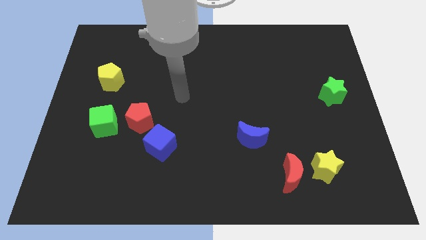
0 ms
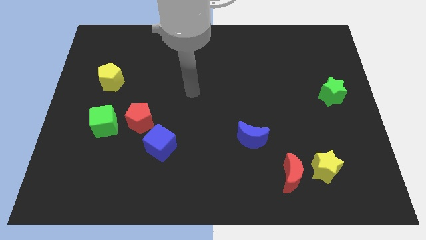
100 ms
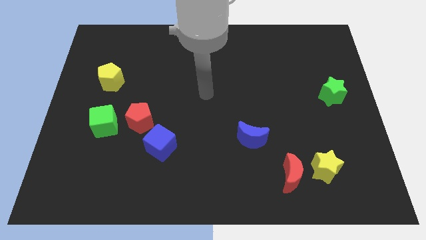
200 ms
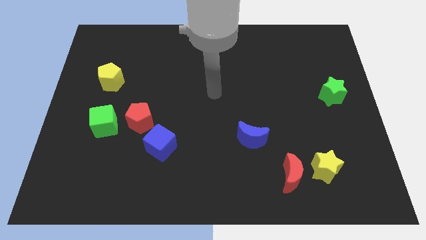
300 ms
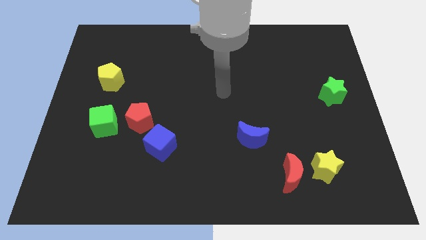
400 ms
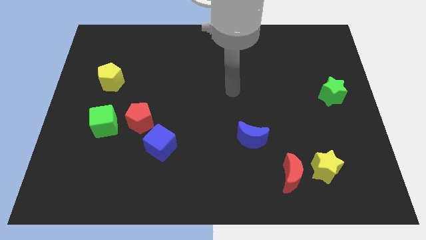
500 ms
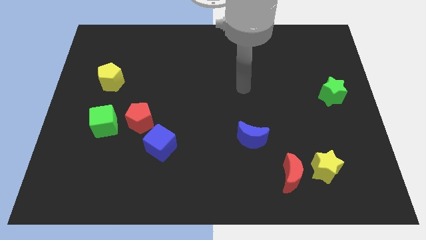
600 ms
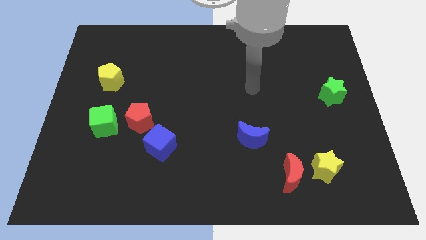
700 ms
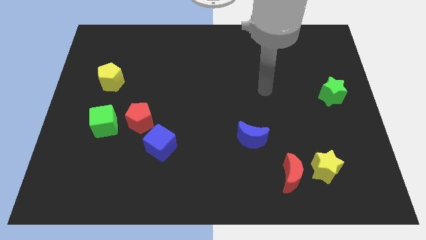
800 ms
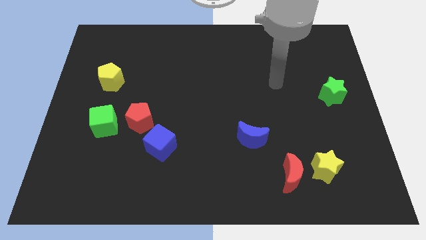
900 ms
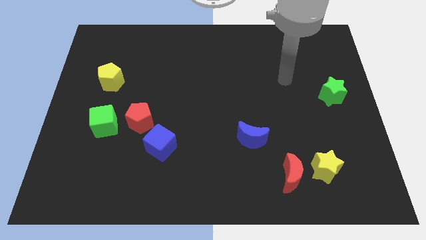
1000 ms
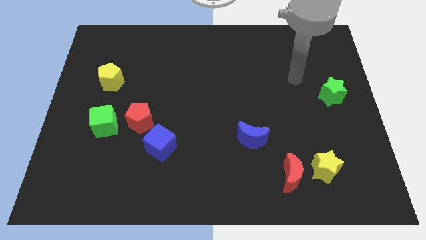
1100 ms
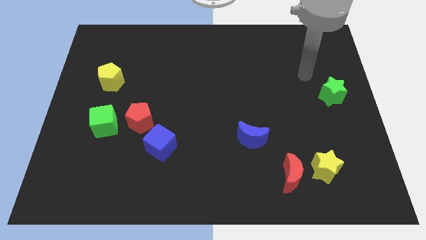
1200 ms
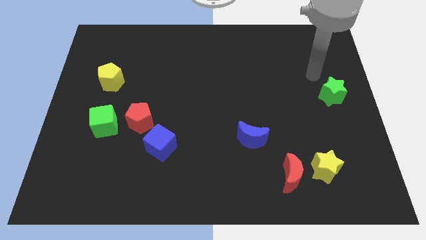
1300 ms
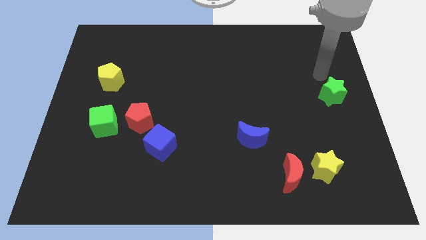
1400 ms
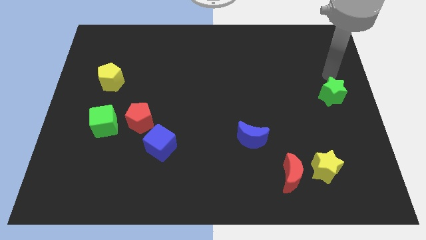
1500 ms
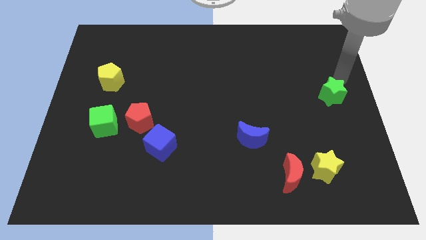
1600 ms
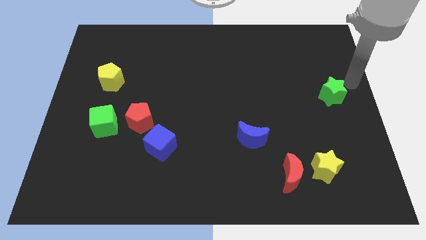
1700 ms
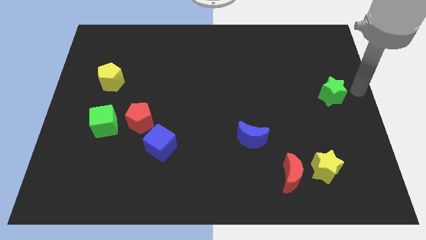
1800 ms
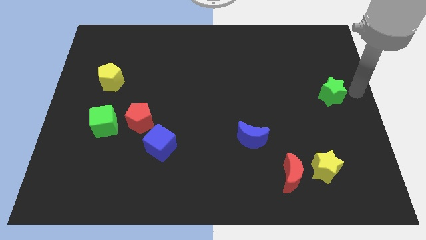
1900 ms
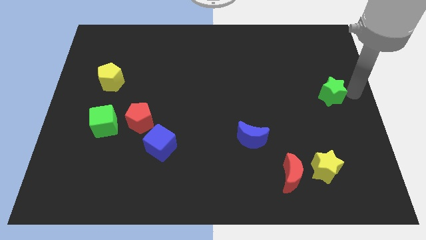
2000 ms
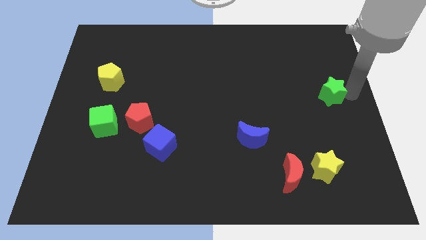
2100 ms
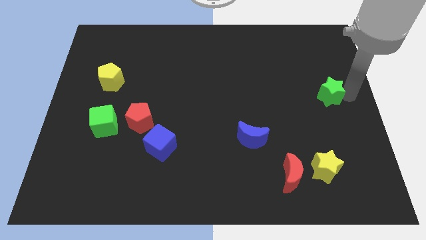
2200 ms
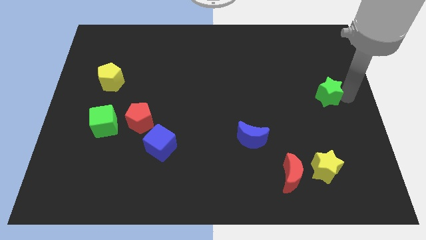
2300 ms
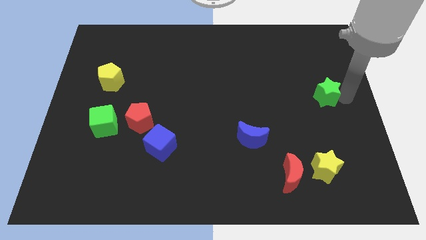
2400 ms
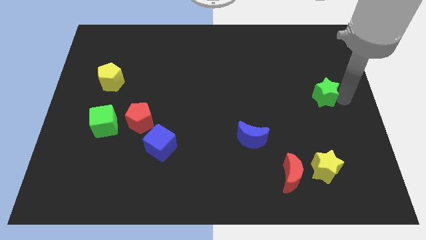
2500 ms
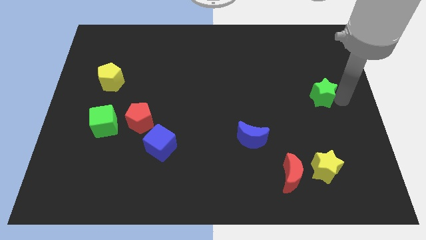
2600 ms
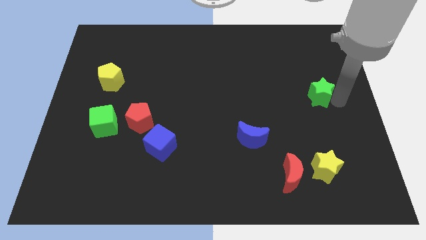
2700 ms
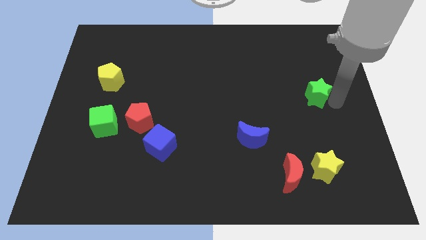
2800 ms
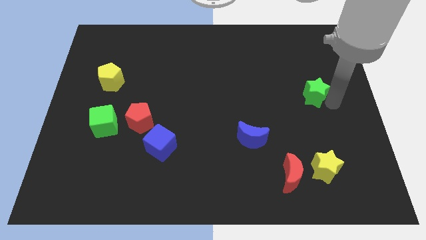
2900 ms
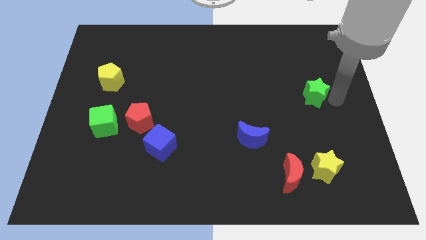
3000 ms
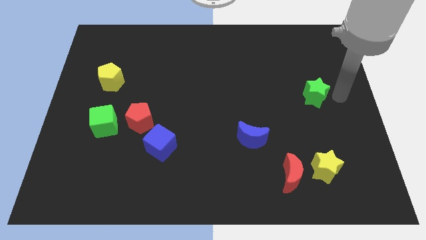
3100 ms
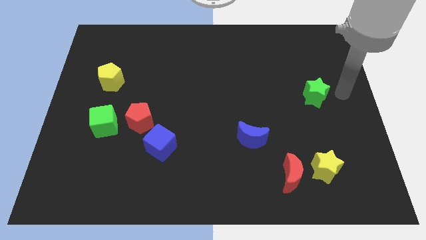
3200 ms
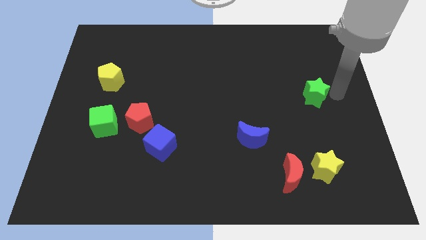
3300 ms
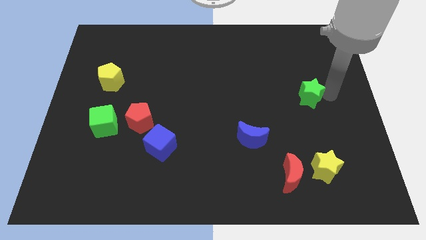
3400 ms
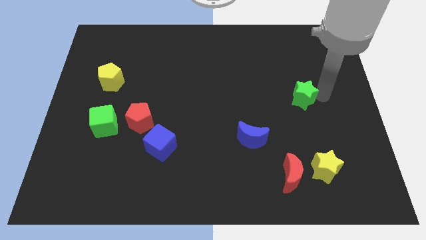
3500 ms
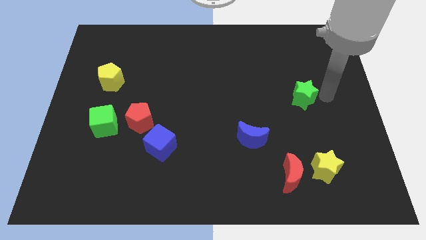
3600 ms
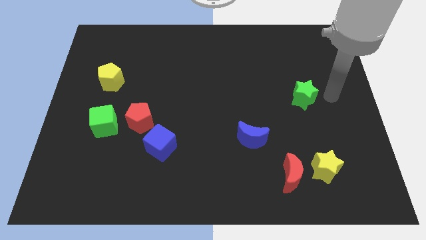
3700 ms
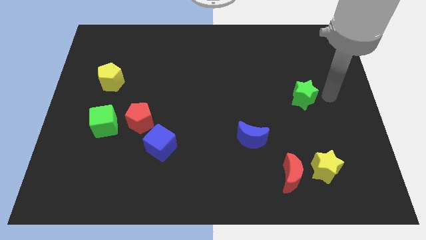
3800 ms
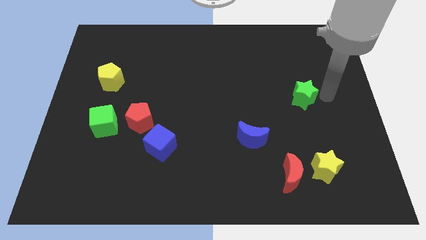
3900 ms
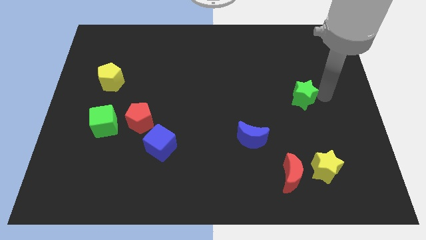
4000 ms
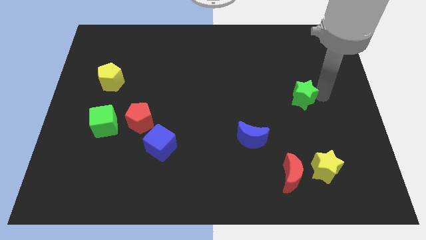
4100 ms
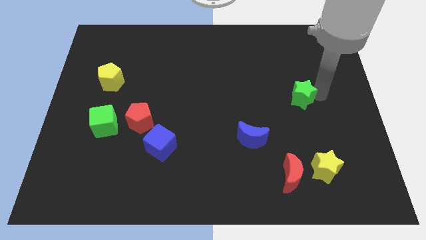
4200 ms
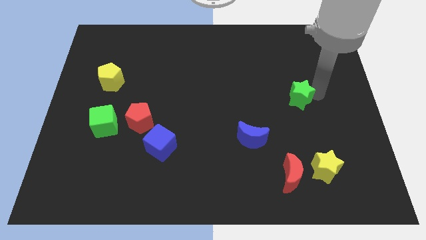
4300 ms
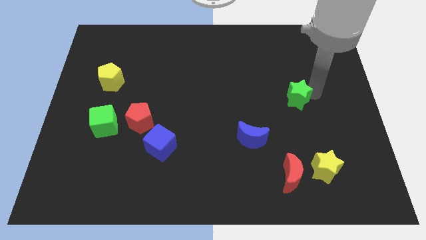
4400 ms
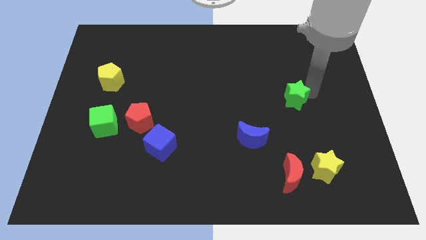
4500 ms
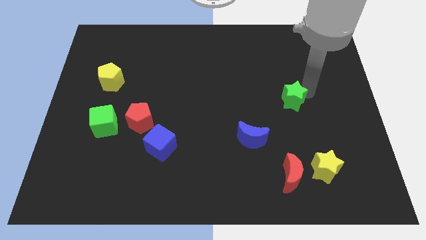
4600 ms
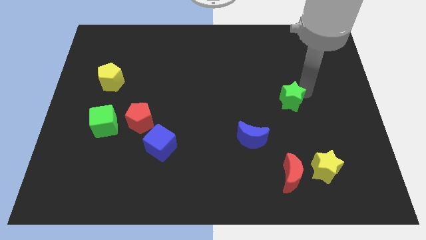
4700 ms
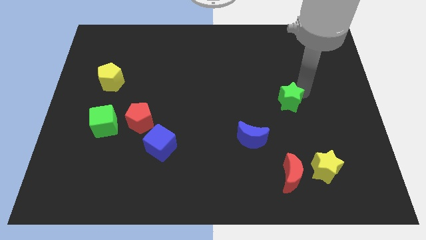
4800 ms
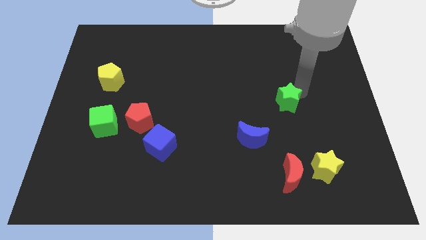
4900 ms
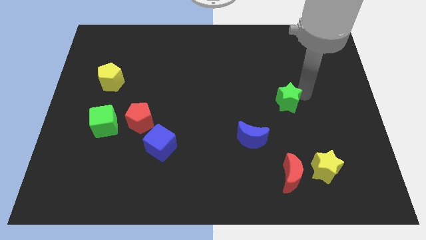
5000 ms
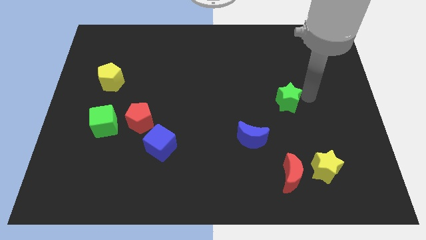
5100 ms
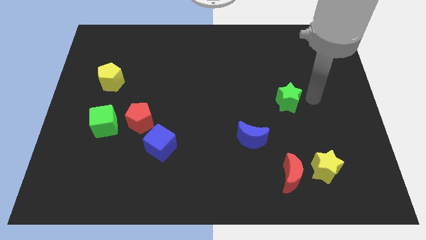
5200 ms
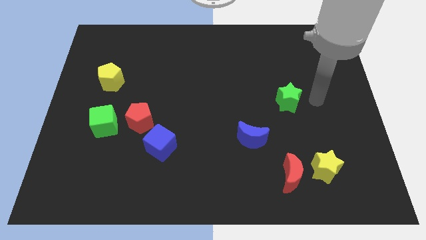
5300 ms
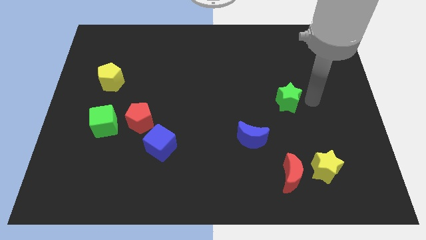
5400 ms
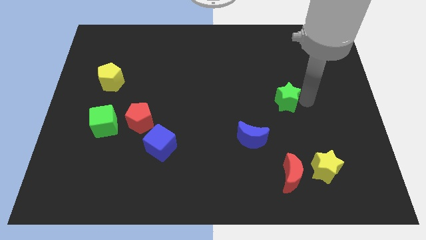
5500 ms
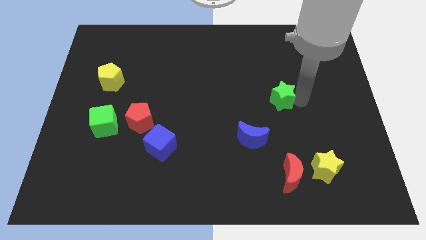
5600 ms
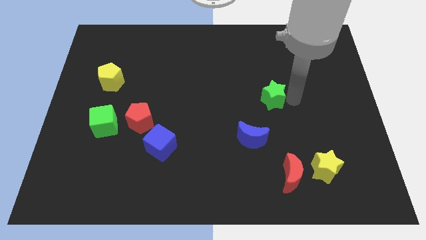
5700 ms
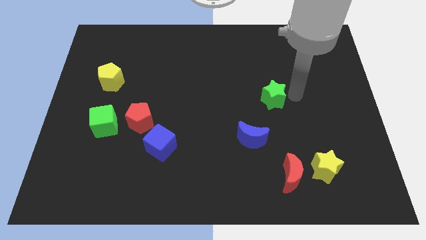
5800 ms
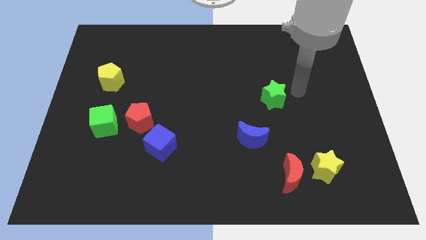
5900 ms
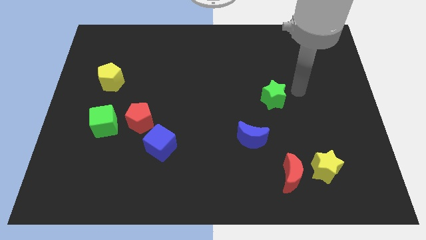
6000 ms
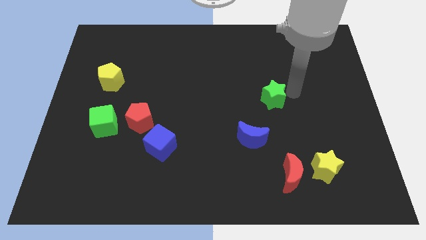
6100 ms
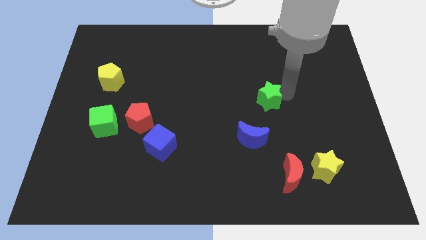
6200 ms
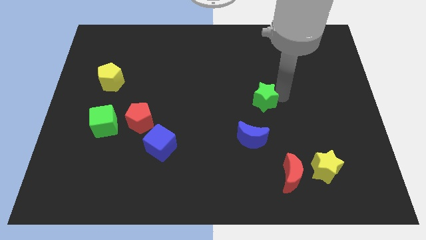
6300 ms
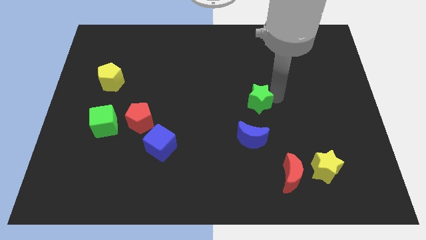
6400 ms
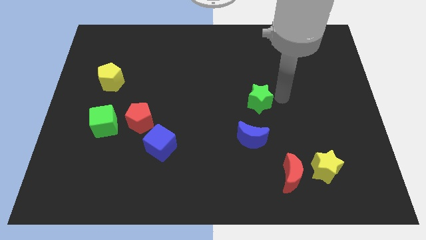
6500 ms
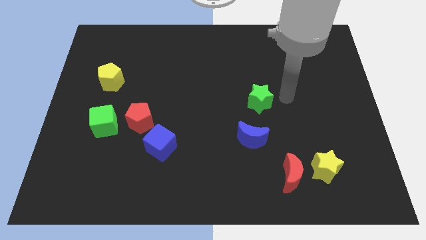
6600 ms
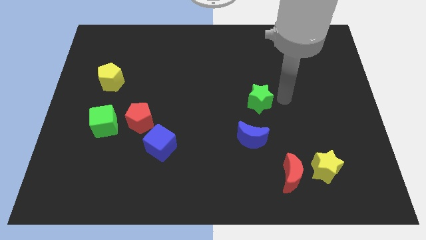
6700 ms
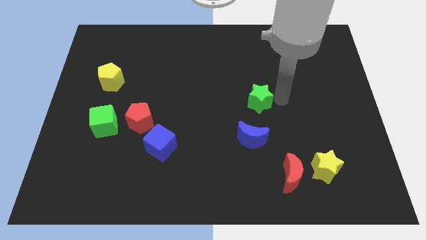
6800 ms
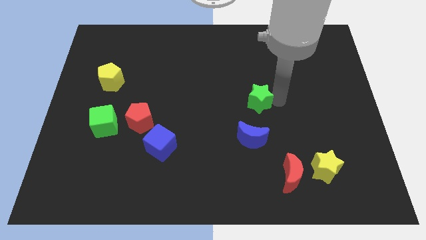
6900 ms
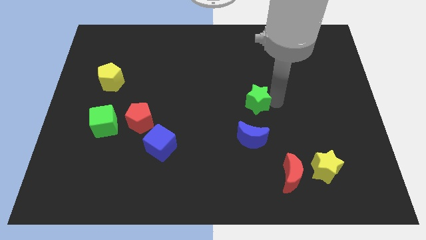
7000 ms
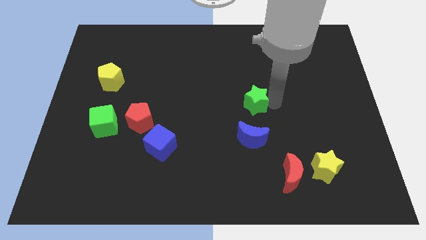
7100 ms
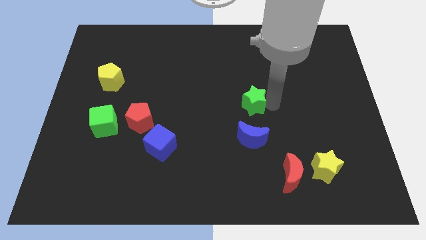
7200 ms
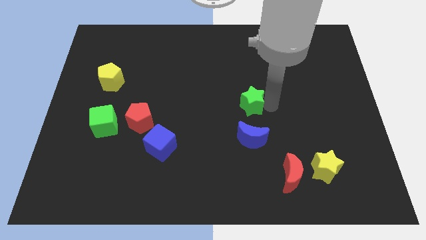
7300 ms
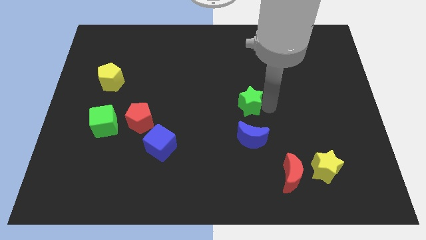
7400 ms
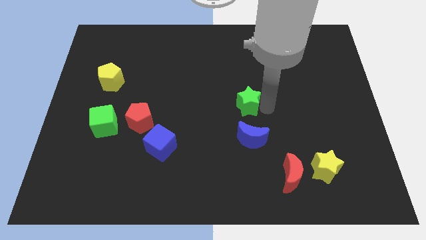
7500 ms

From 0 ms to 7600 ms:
push the green star left

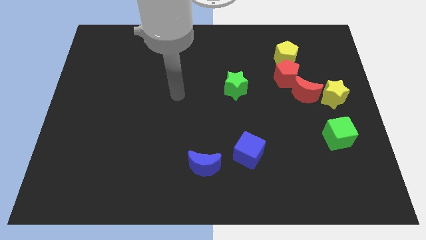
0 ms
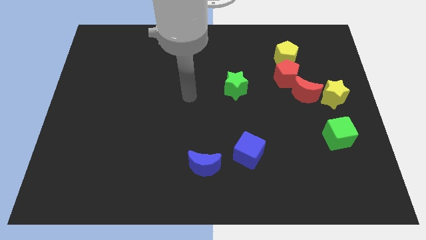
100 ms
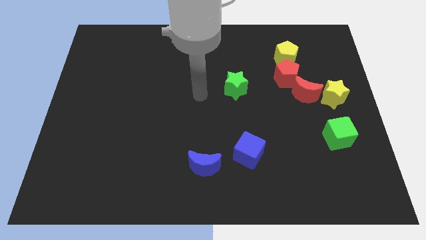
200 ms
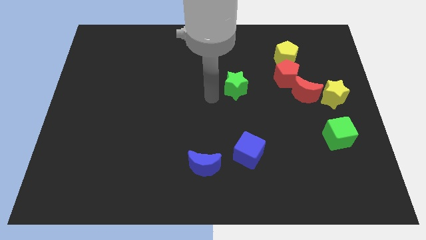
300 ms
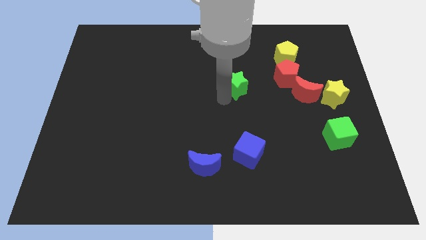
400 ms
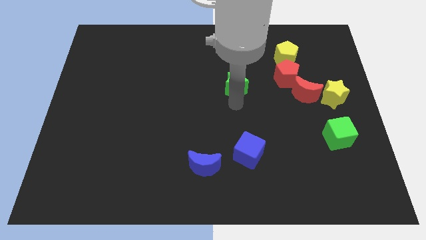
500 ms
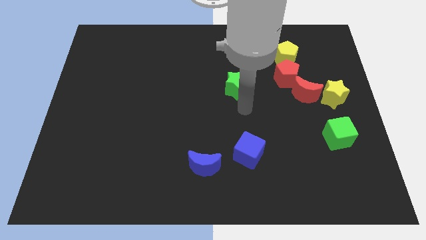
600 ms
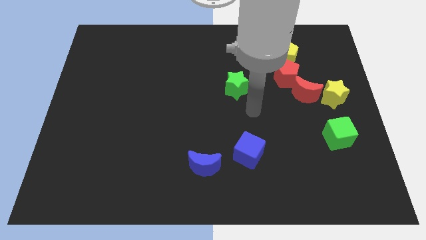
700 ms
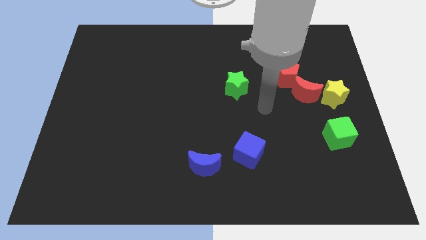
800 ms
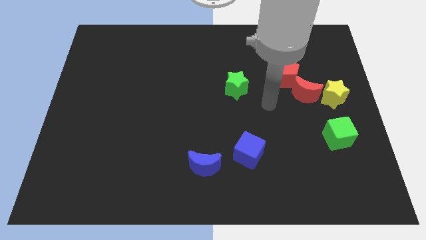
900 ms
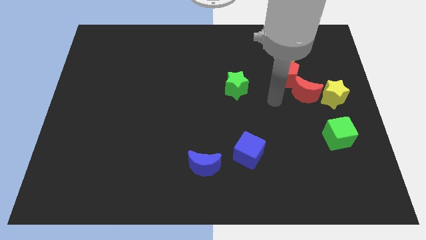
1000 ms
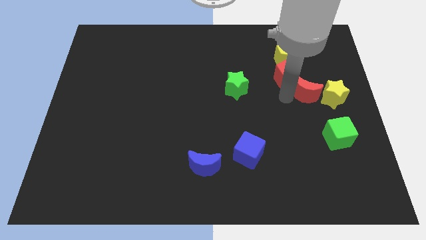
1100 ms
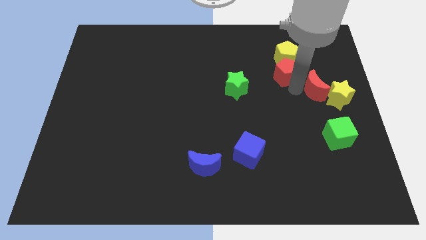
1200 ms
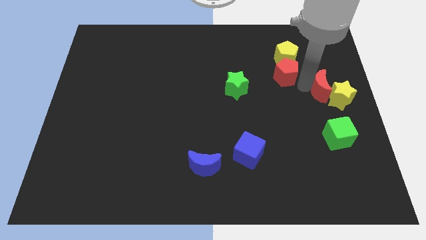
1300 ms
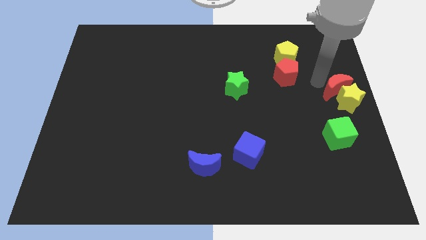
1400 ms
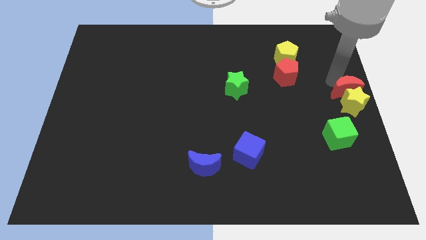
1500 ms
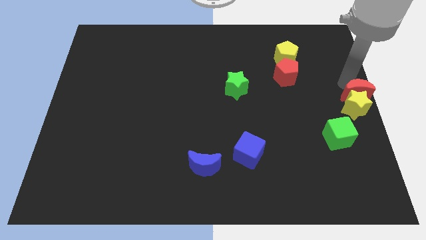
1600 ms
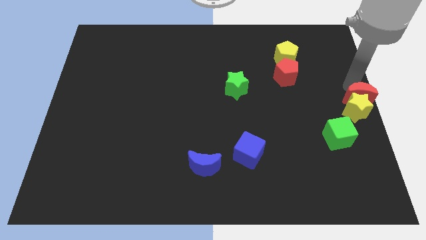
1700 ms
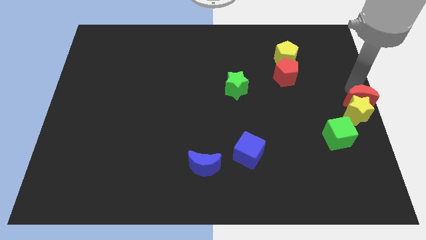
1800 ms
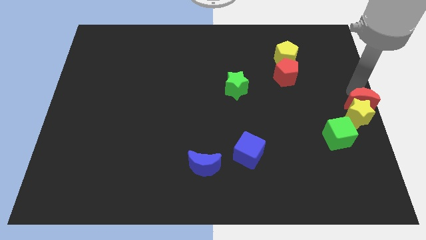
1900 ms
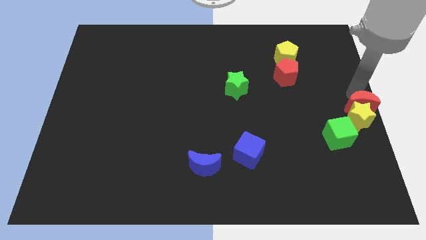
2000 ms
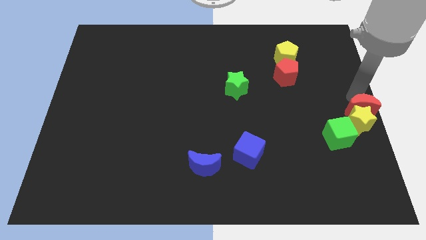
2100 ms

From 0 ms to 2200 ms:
move the yellow star downwards a little bit
